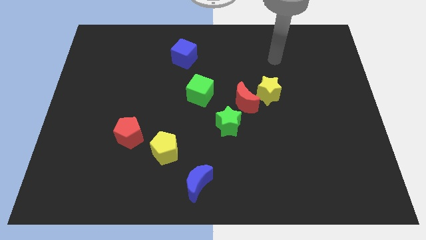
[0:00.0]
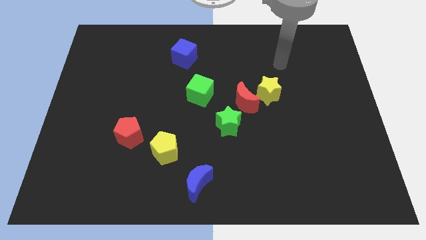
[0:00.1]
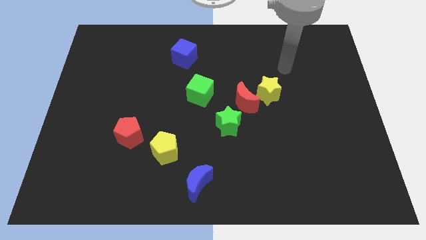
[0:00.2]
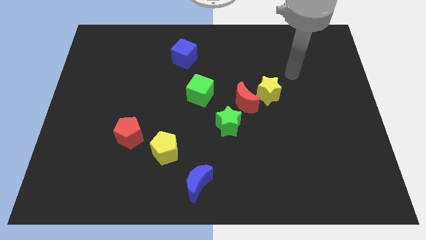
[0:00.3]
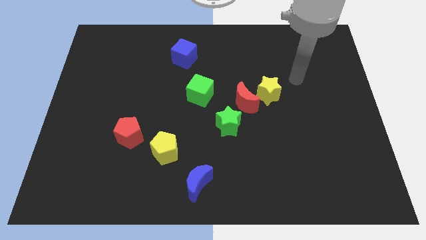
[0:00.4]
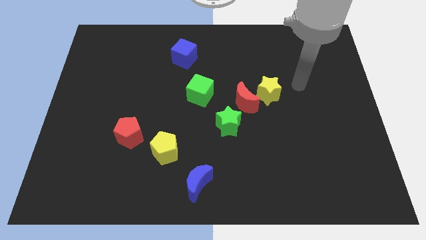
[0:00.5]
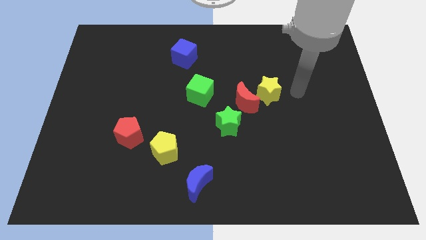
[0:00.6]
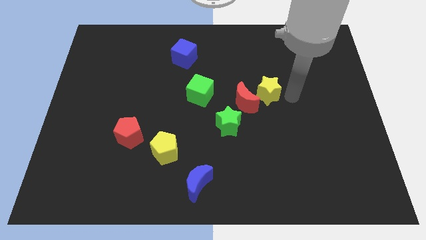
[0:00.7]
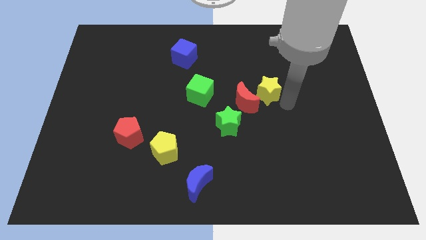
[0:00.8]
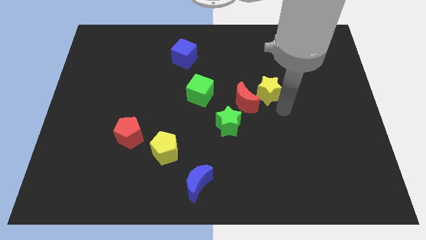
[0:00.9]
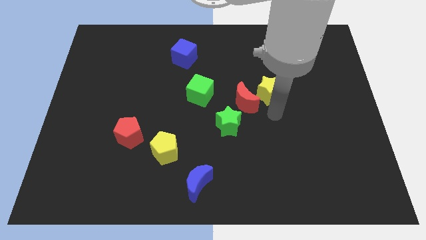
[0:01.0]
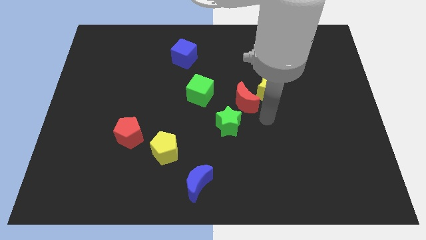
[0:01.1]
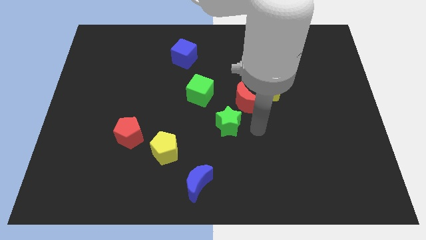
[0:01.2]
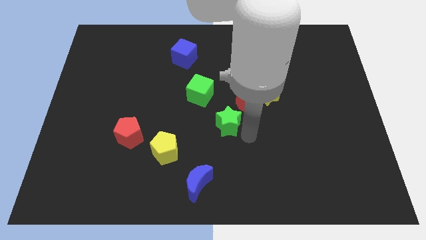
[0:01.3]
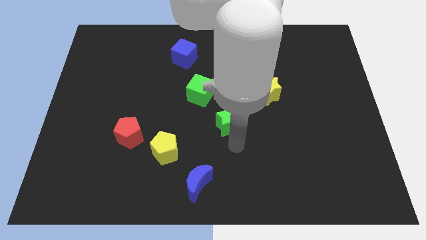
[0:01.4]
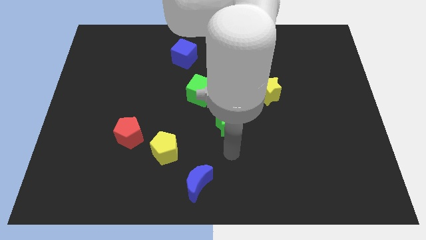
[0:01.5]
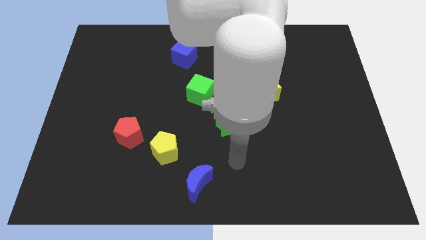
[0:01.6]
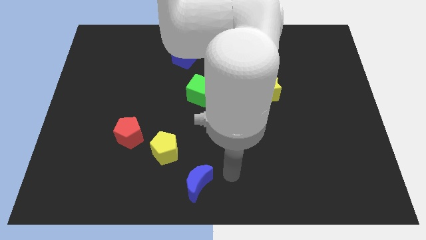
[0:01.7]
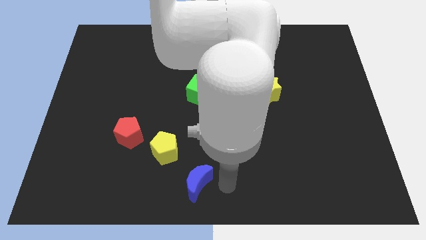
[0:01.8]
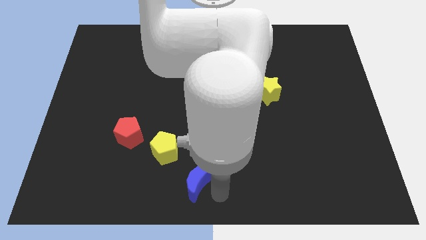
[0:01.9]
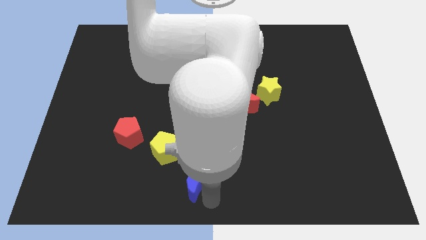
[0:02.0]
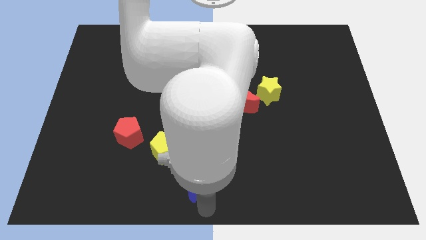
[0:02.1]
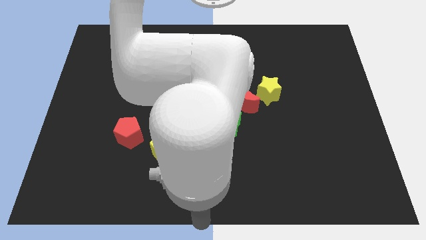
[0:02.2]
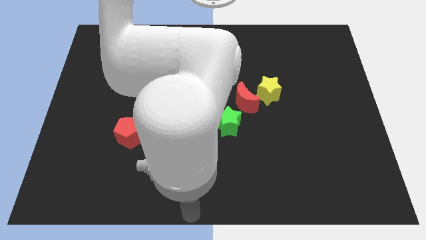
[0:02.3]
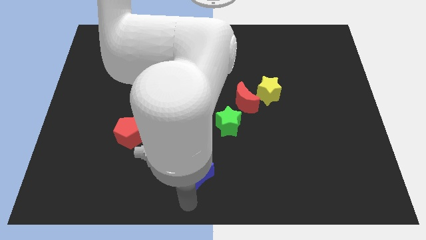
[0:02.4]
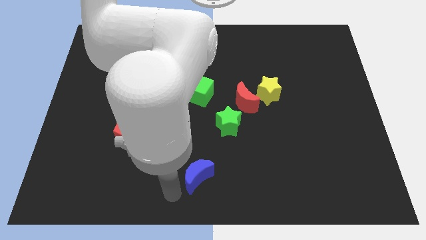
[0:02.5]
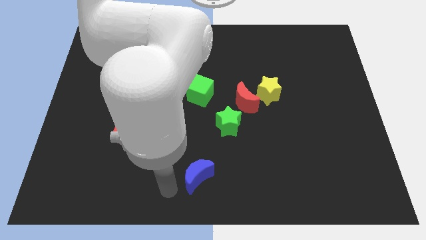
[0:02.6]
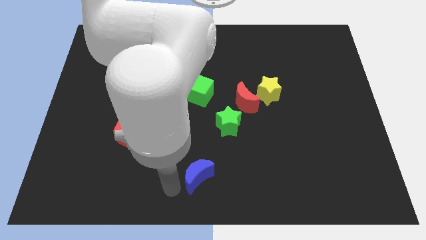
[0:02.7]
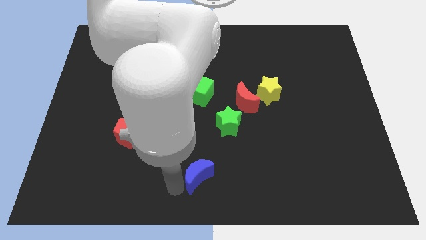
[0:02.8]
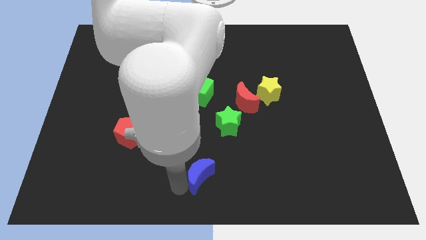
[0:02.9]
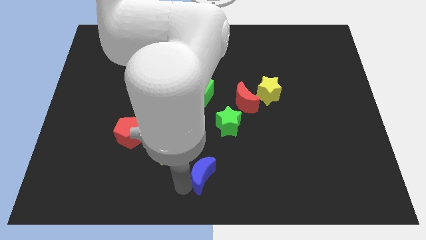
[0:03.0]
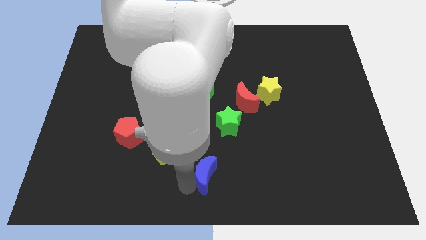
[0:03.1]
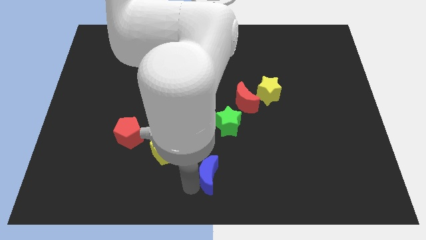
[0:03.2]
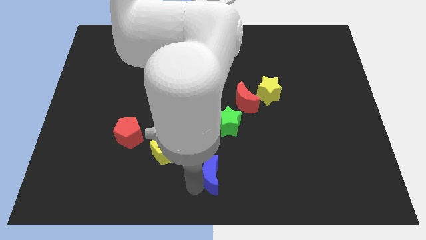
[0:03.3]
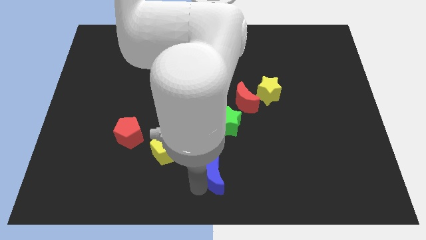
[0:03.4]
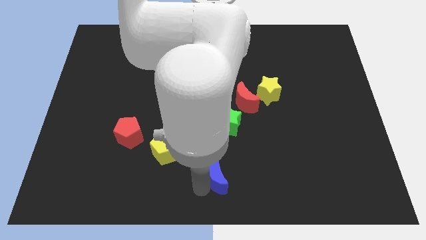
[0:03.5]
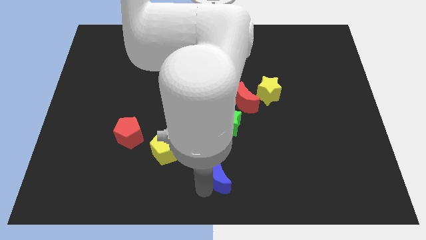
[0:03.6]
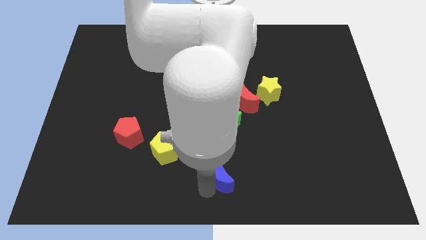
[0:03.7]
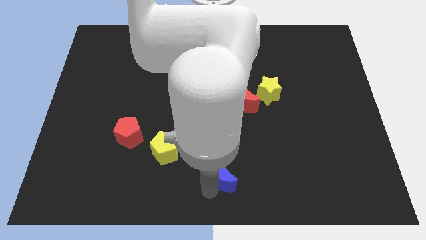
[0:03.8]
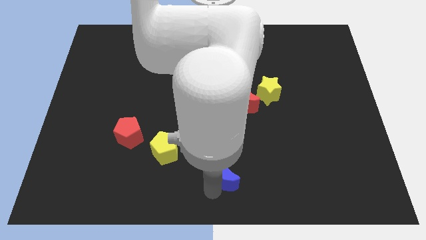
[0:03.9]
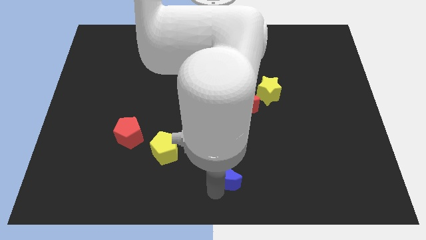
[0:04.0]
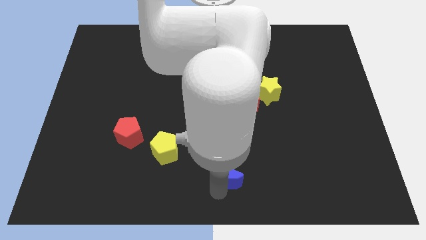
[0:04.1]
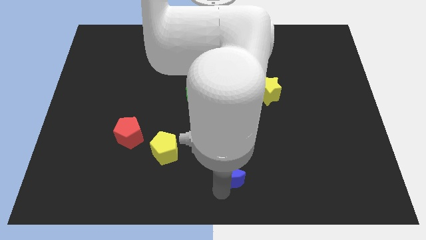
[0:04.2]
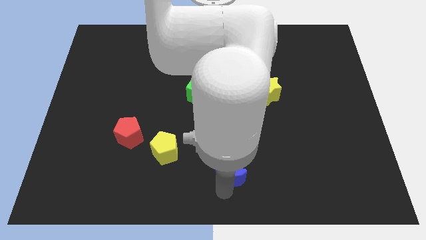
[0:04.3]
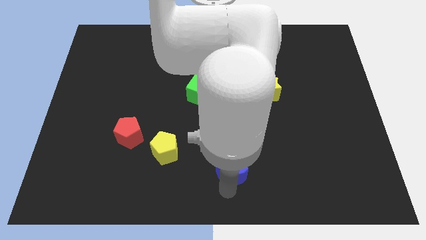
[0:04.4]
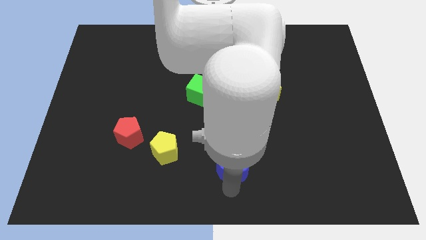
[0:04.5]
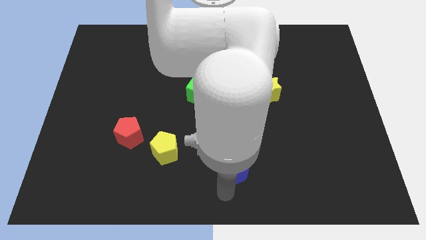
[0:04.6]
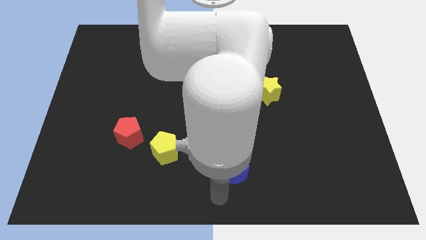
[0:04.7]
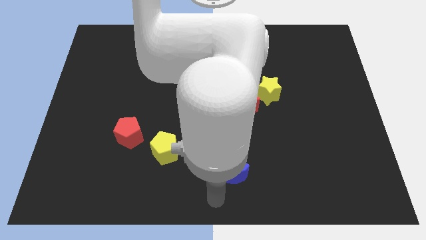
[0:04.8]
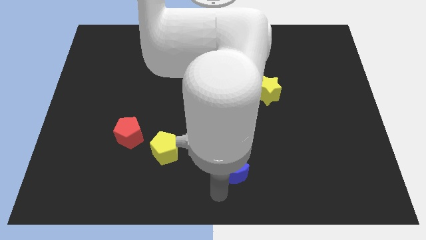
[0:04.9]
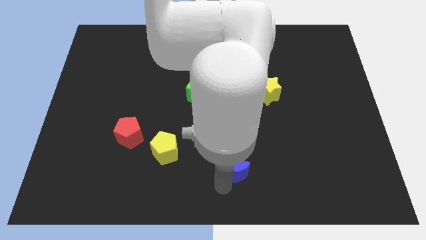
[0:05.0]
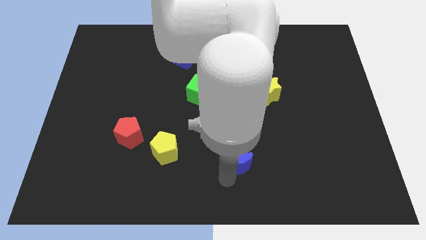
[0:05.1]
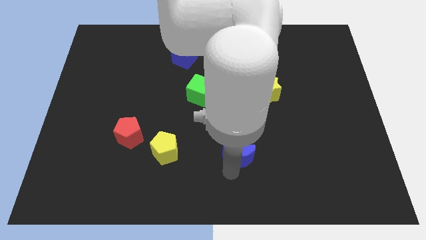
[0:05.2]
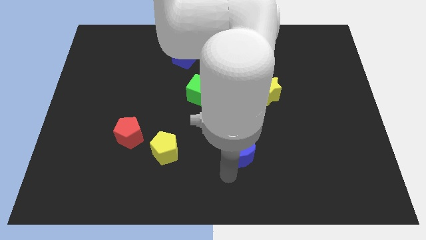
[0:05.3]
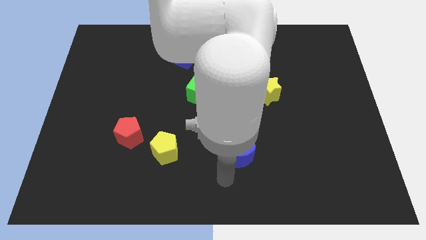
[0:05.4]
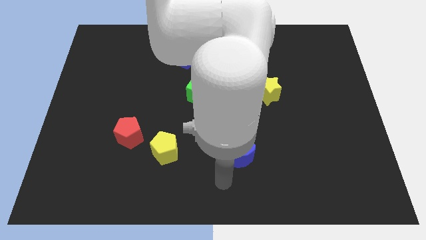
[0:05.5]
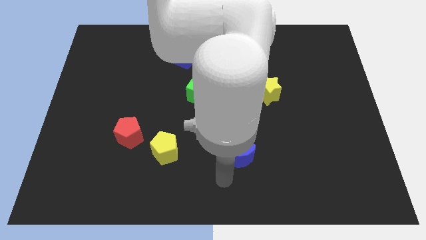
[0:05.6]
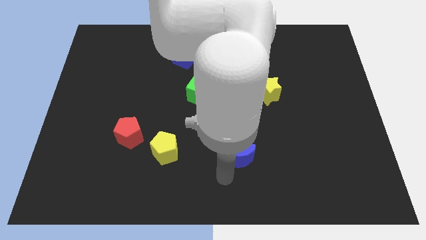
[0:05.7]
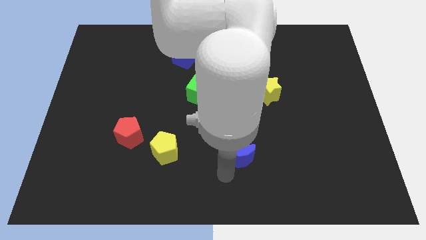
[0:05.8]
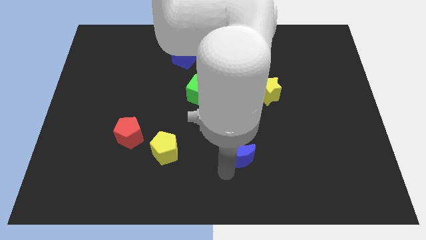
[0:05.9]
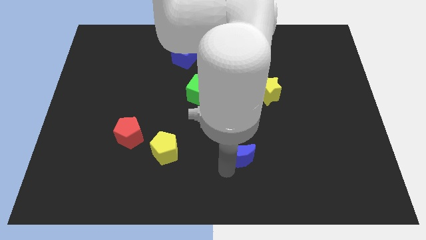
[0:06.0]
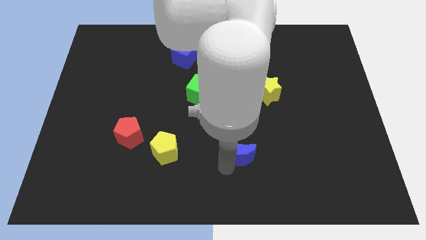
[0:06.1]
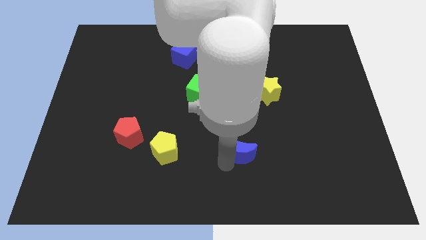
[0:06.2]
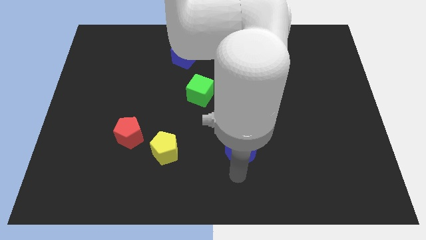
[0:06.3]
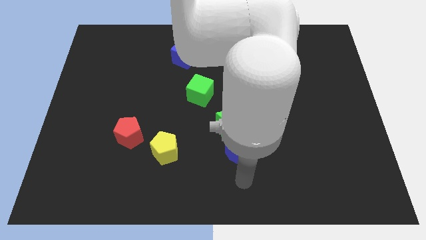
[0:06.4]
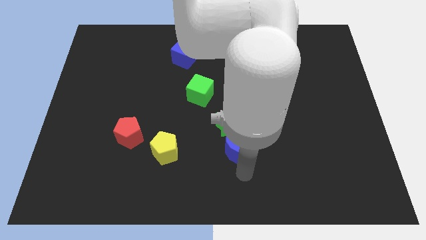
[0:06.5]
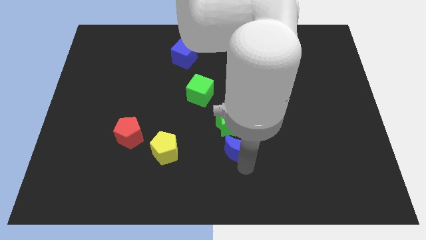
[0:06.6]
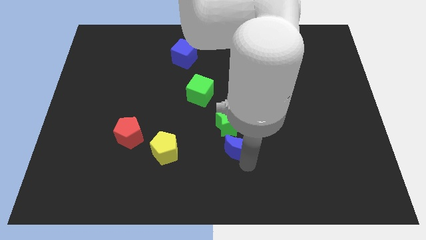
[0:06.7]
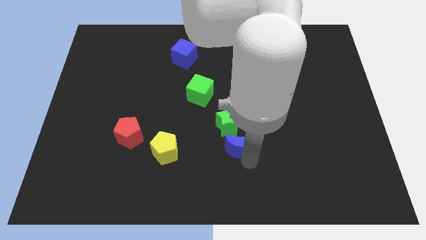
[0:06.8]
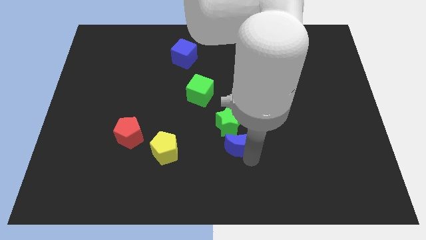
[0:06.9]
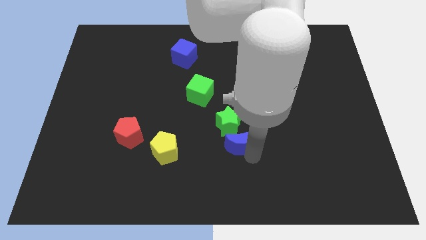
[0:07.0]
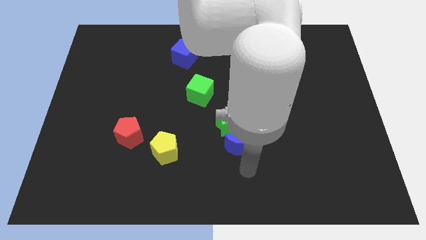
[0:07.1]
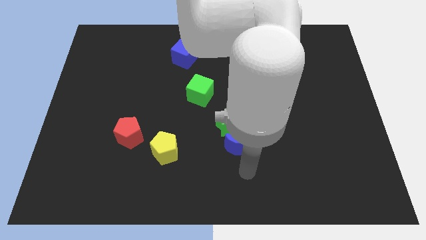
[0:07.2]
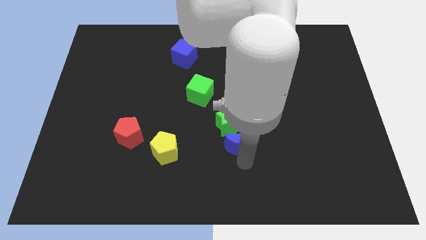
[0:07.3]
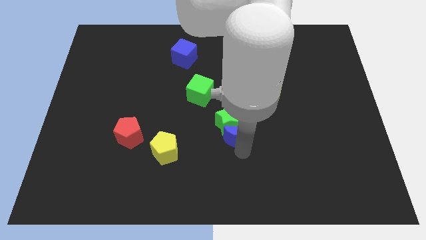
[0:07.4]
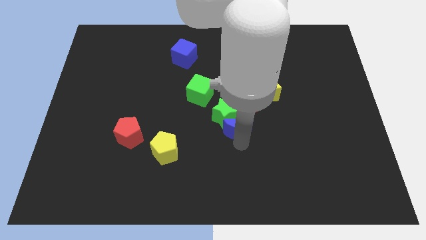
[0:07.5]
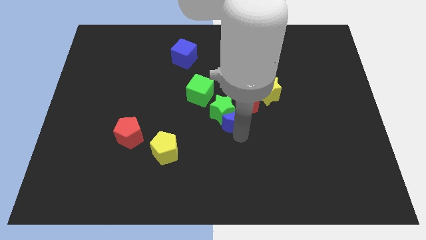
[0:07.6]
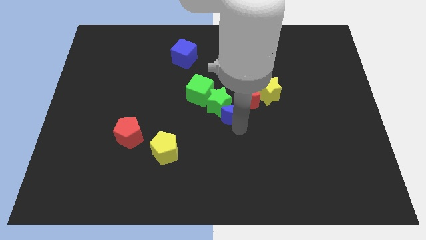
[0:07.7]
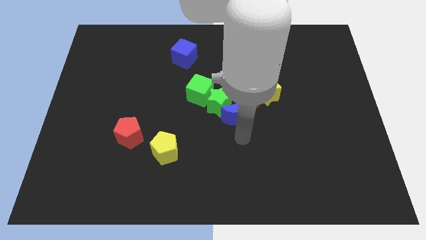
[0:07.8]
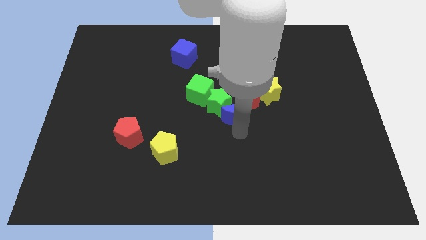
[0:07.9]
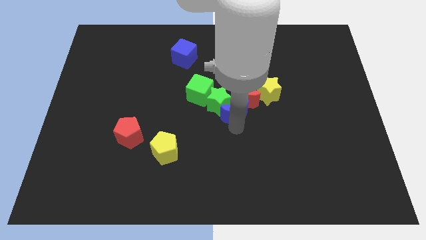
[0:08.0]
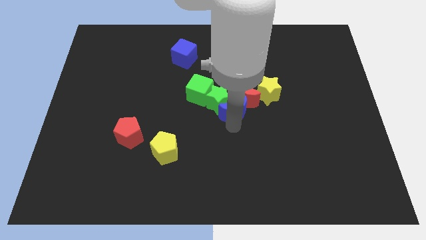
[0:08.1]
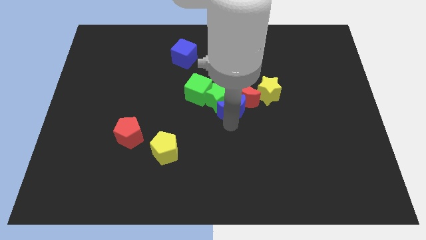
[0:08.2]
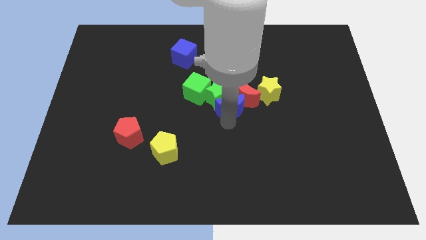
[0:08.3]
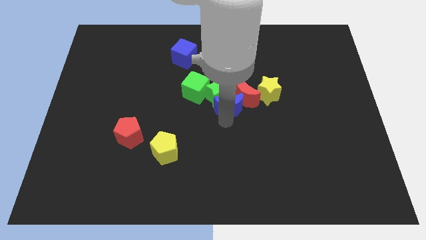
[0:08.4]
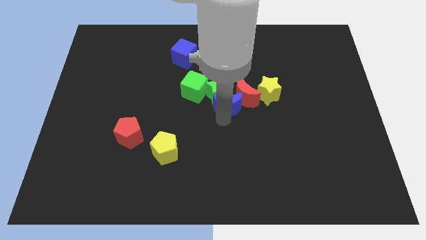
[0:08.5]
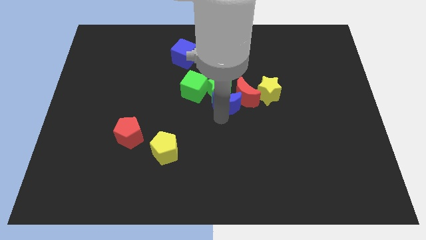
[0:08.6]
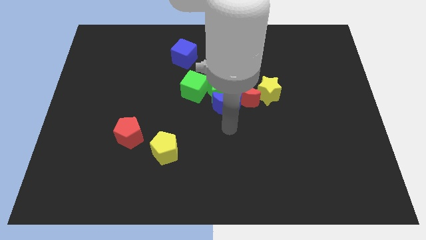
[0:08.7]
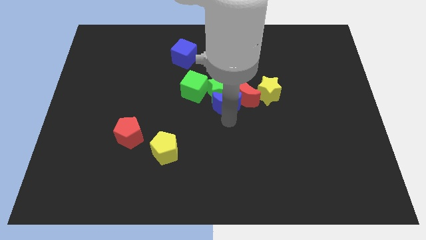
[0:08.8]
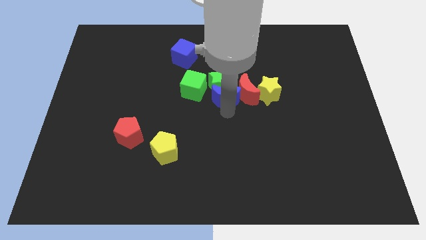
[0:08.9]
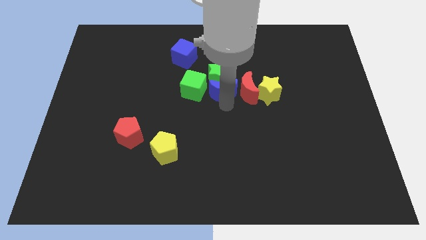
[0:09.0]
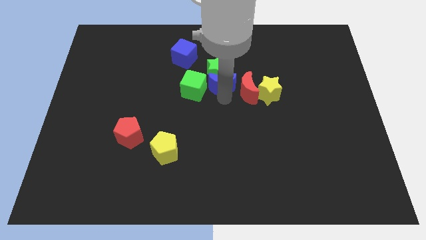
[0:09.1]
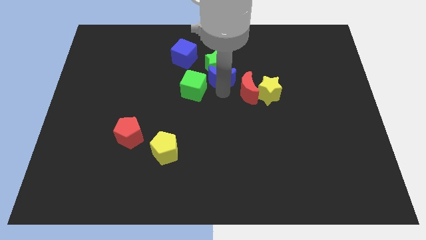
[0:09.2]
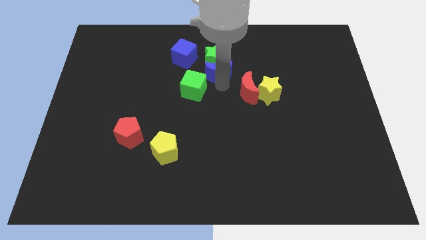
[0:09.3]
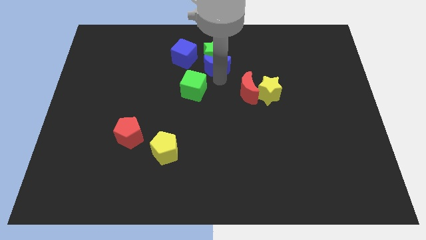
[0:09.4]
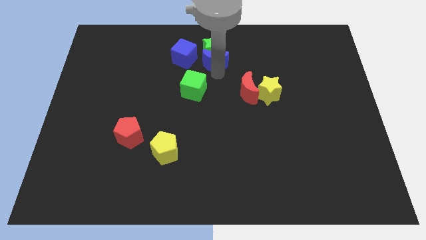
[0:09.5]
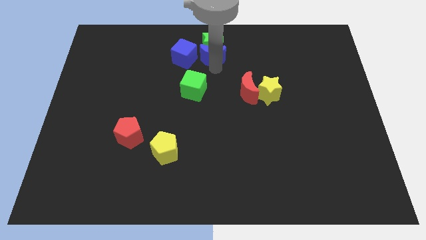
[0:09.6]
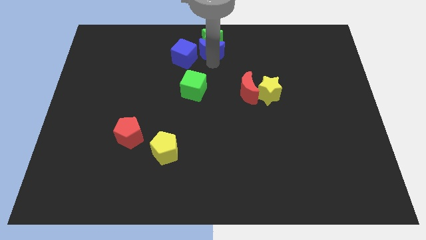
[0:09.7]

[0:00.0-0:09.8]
push the blue moon to the top side
